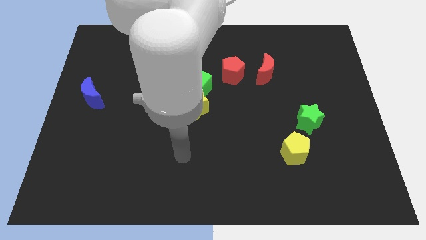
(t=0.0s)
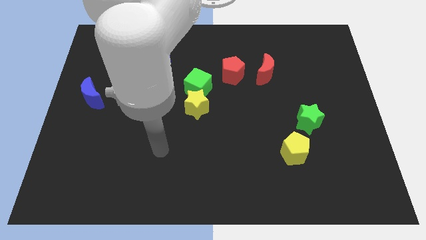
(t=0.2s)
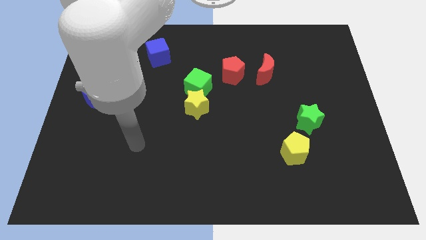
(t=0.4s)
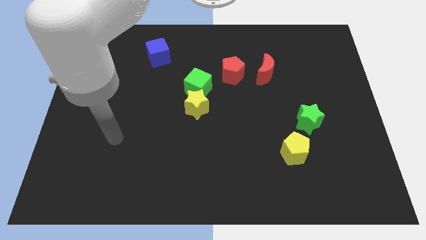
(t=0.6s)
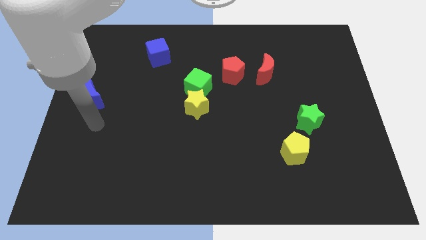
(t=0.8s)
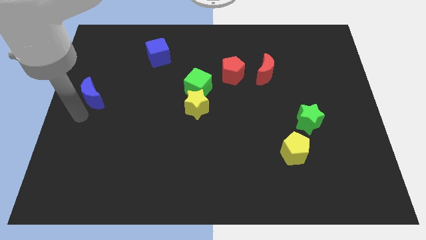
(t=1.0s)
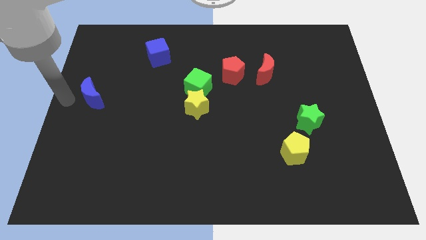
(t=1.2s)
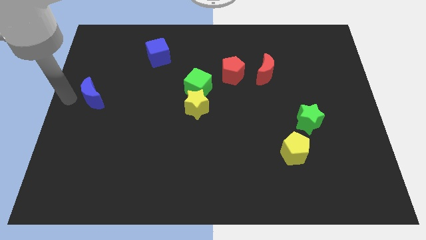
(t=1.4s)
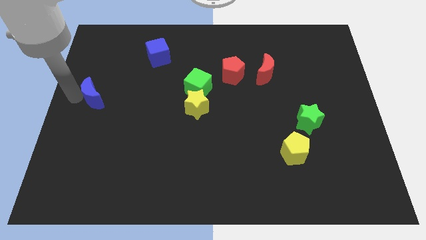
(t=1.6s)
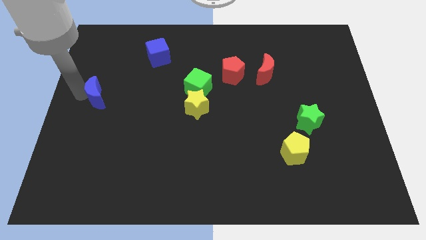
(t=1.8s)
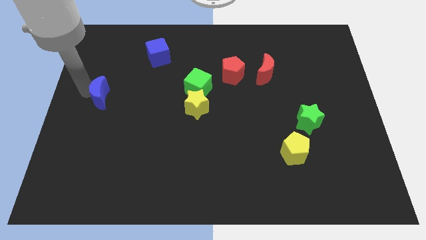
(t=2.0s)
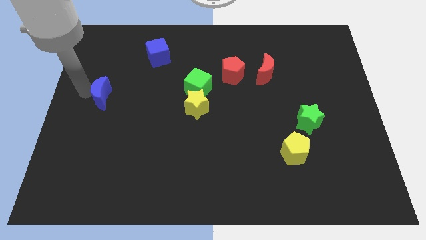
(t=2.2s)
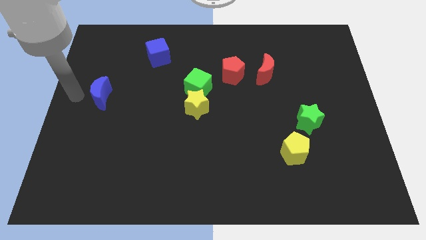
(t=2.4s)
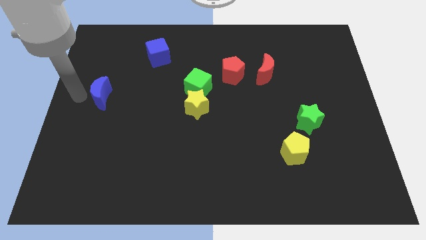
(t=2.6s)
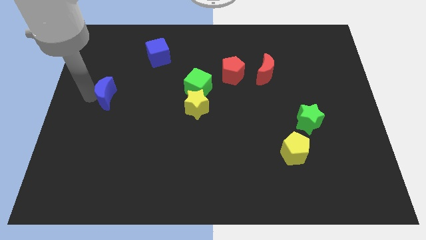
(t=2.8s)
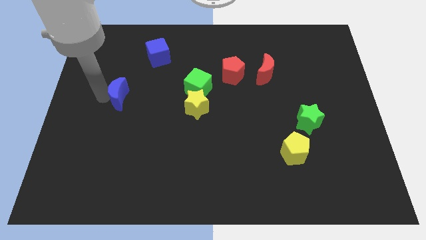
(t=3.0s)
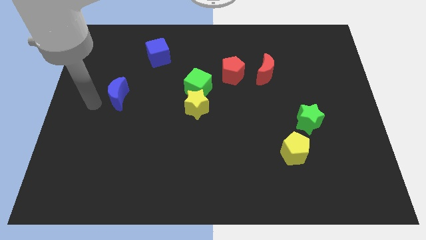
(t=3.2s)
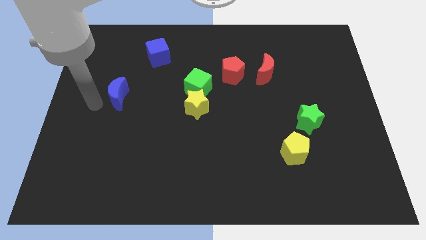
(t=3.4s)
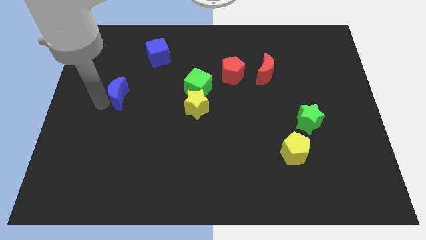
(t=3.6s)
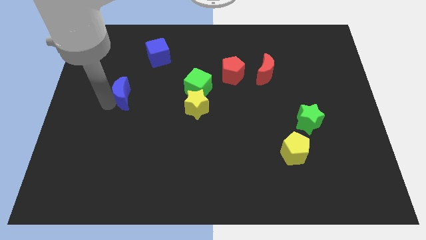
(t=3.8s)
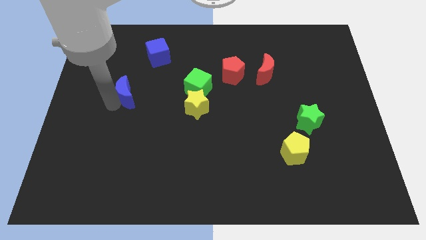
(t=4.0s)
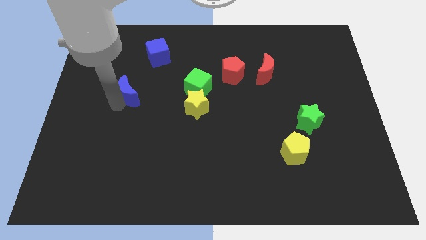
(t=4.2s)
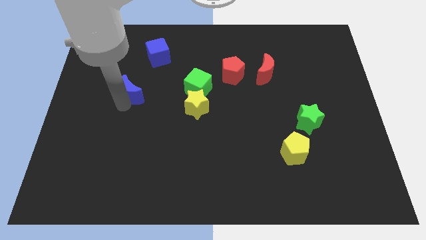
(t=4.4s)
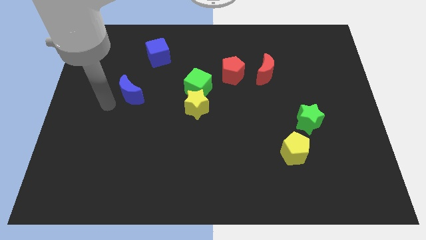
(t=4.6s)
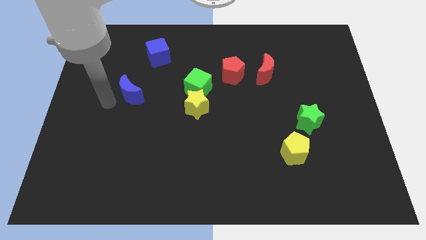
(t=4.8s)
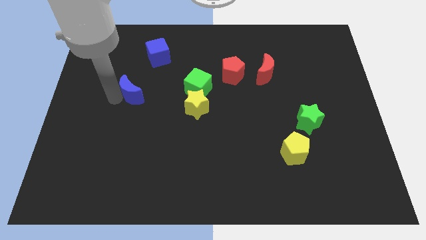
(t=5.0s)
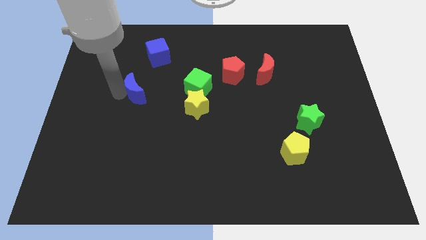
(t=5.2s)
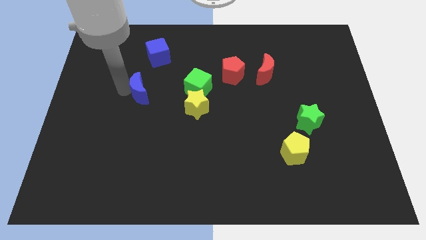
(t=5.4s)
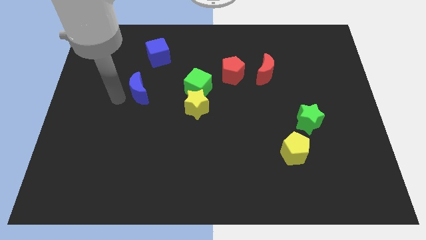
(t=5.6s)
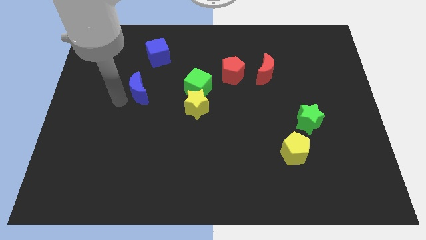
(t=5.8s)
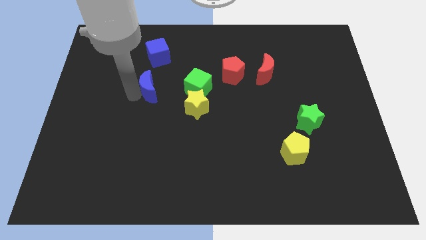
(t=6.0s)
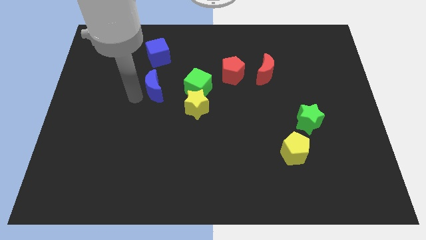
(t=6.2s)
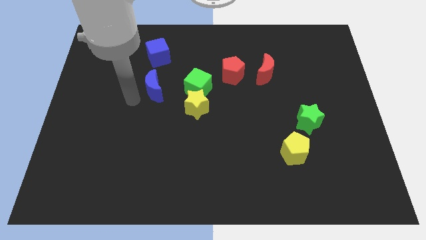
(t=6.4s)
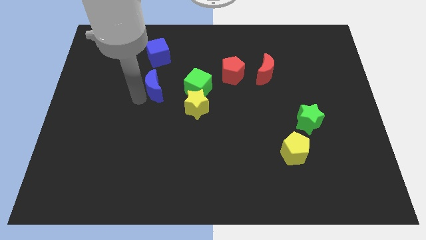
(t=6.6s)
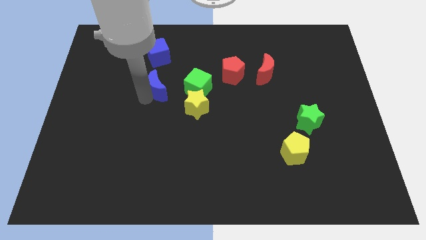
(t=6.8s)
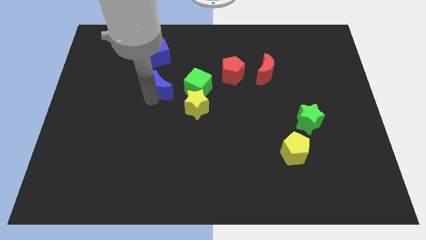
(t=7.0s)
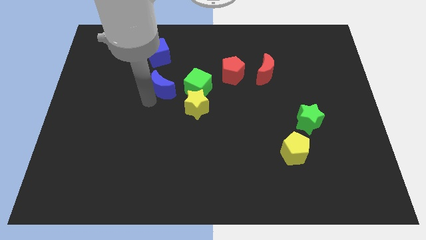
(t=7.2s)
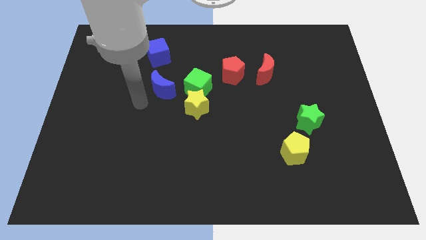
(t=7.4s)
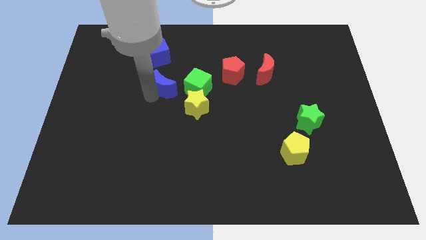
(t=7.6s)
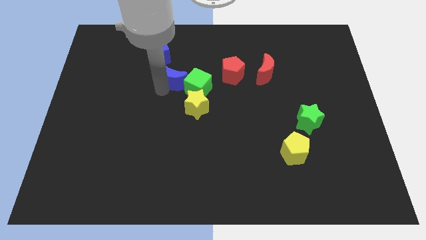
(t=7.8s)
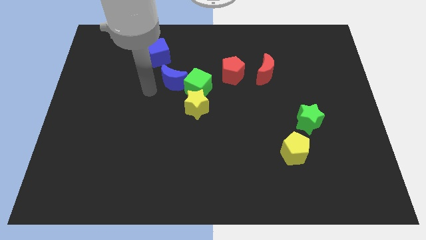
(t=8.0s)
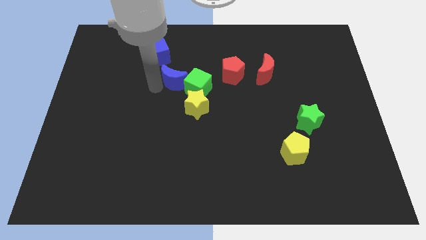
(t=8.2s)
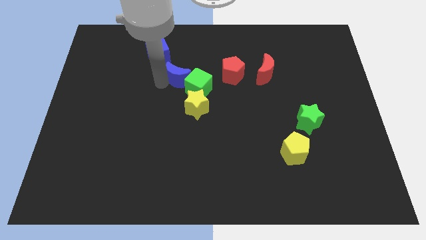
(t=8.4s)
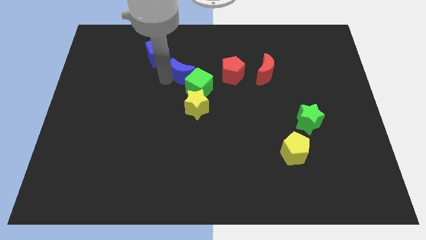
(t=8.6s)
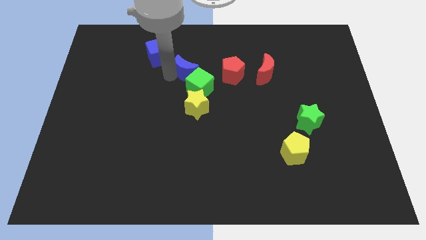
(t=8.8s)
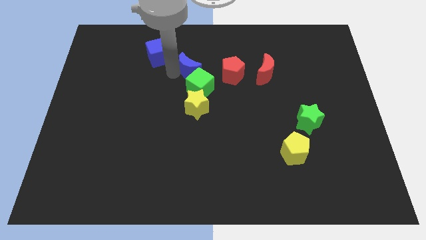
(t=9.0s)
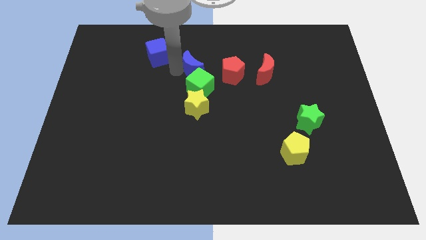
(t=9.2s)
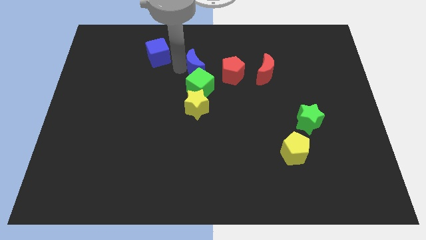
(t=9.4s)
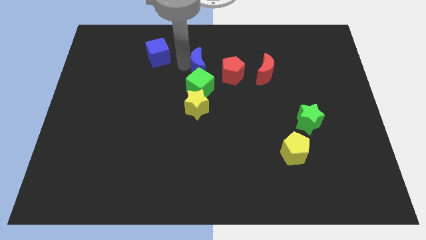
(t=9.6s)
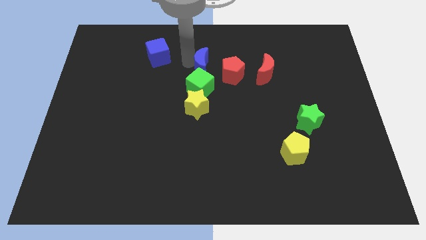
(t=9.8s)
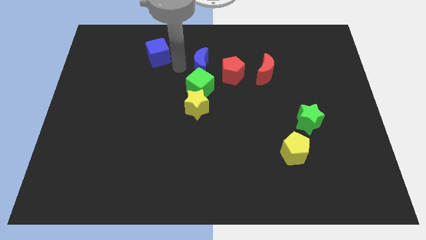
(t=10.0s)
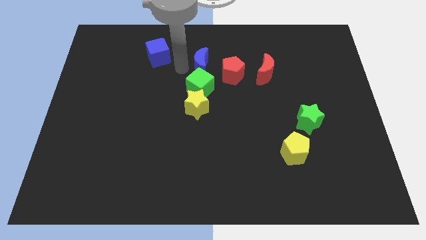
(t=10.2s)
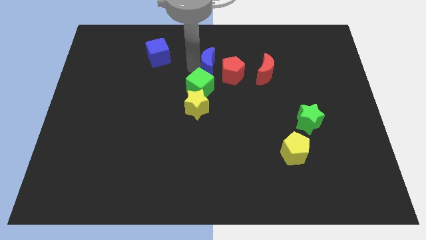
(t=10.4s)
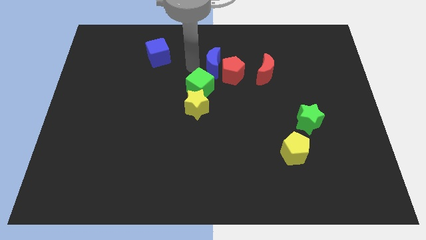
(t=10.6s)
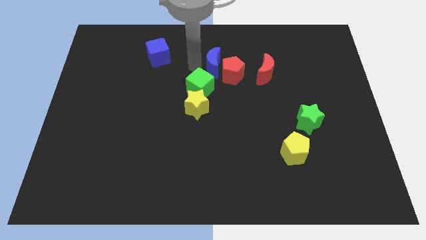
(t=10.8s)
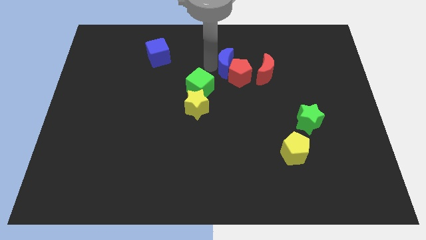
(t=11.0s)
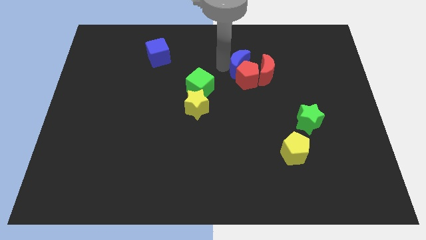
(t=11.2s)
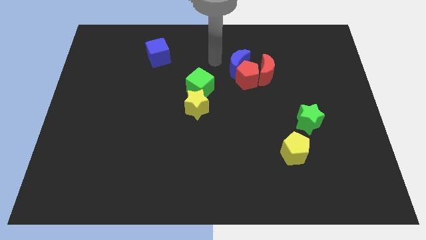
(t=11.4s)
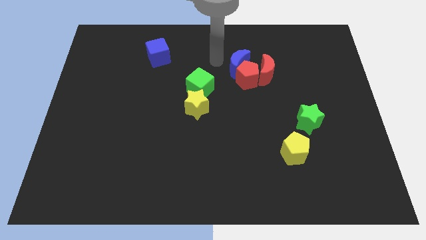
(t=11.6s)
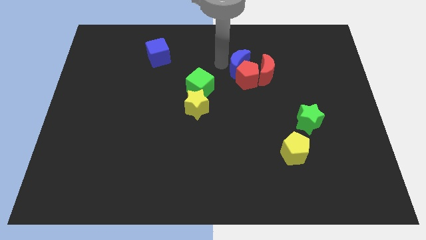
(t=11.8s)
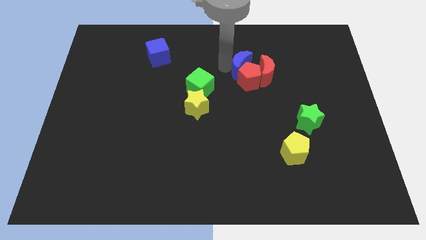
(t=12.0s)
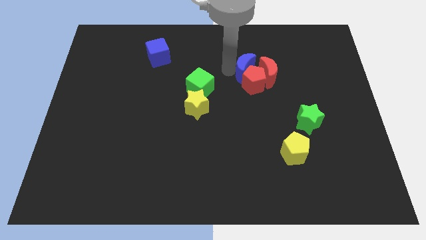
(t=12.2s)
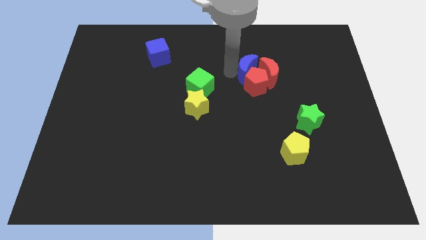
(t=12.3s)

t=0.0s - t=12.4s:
slide the blue moon close to the red moon
